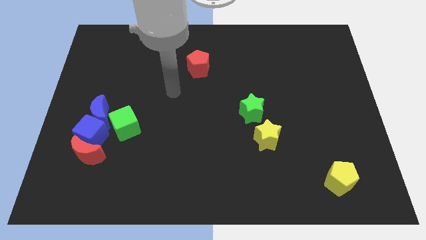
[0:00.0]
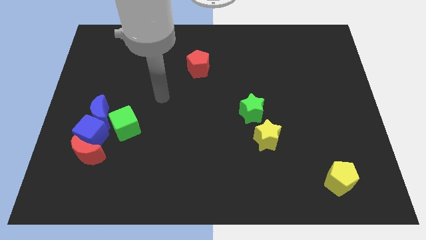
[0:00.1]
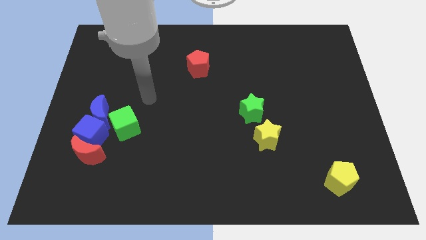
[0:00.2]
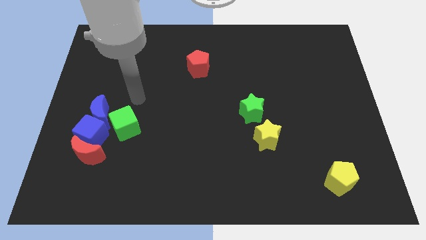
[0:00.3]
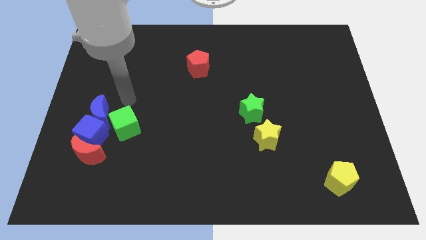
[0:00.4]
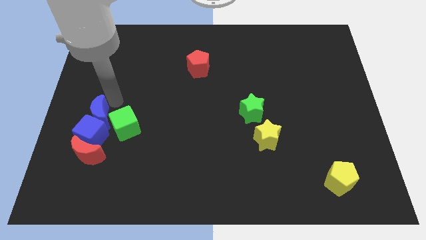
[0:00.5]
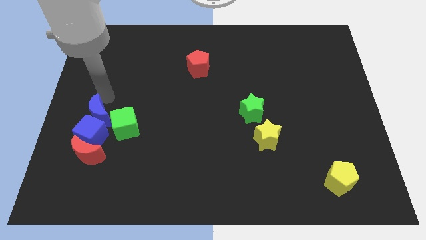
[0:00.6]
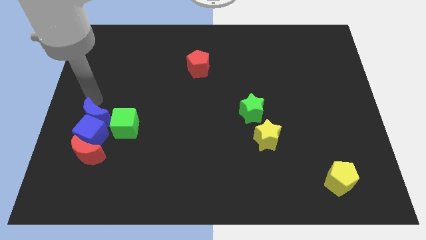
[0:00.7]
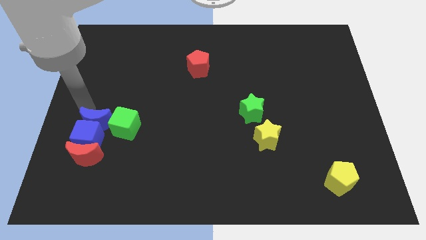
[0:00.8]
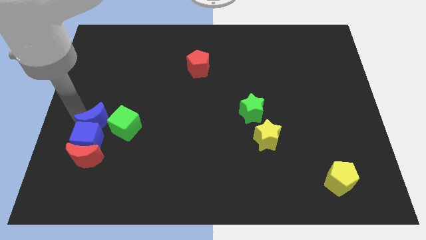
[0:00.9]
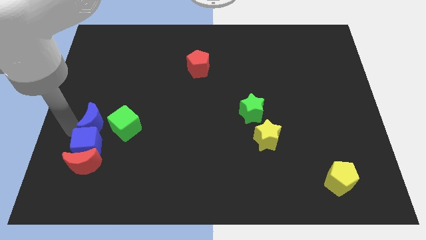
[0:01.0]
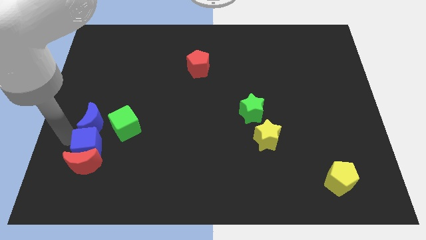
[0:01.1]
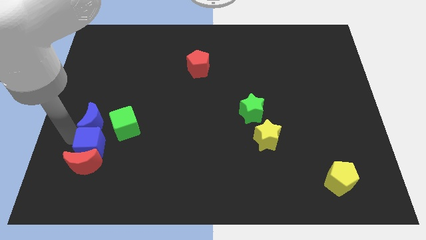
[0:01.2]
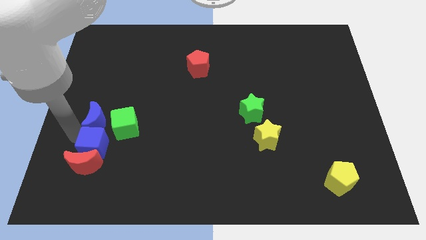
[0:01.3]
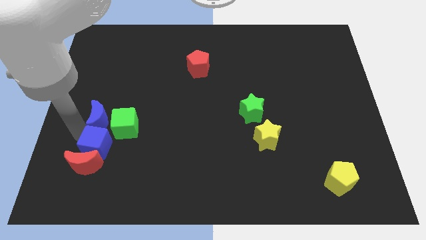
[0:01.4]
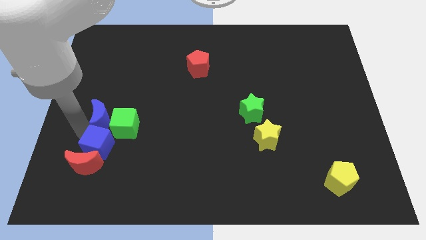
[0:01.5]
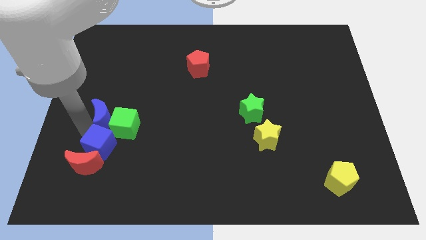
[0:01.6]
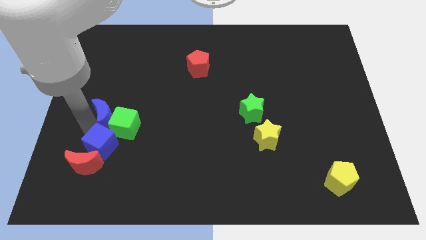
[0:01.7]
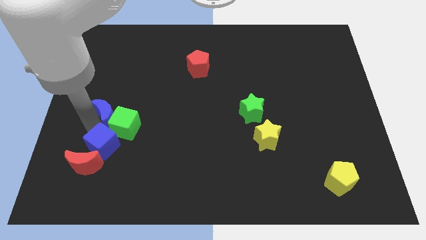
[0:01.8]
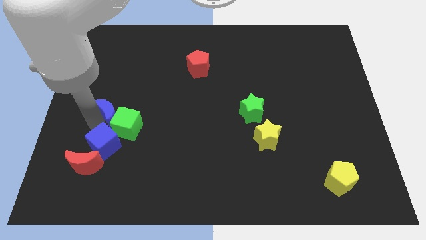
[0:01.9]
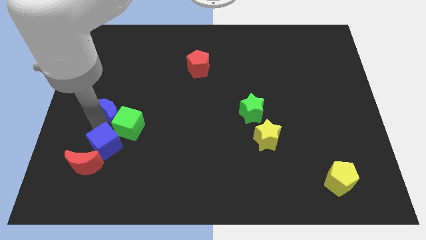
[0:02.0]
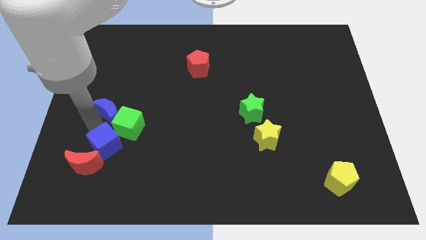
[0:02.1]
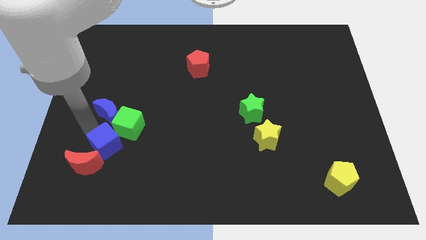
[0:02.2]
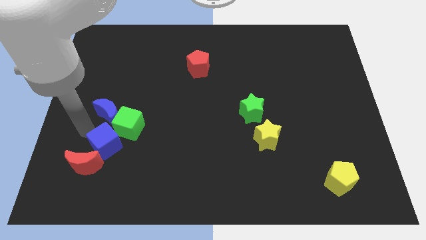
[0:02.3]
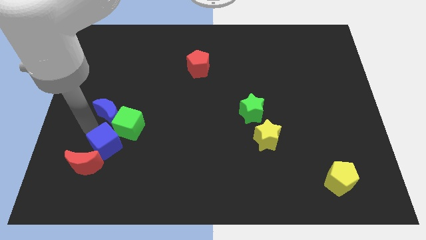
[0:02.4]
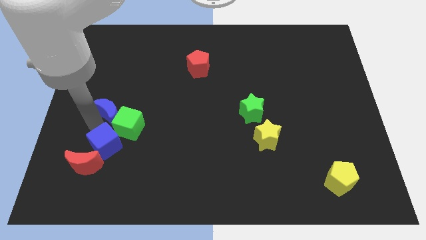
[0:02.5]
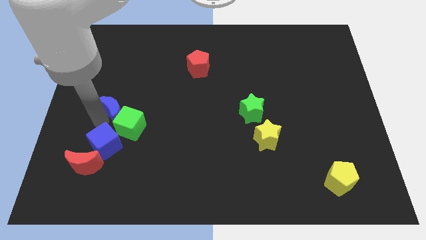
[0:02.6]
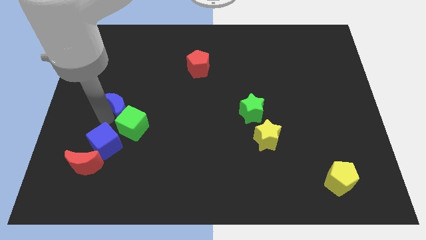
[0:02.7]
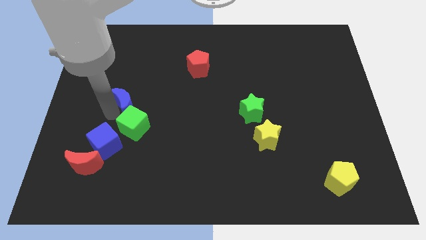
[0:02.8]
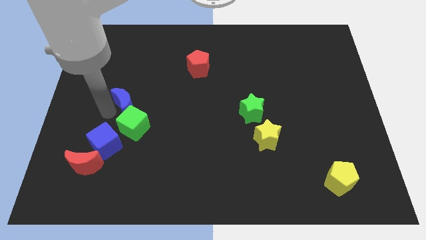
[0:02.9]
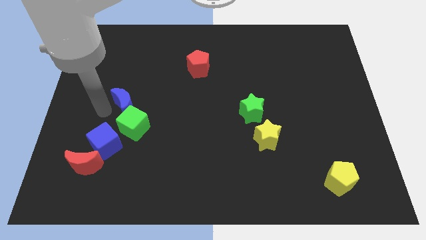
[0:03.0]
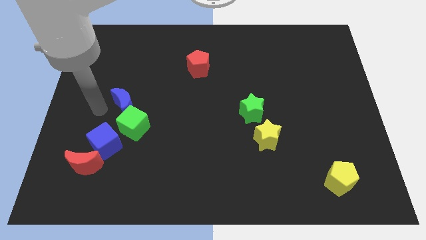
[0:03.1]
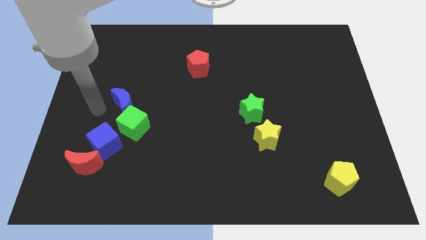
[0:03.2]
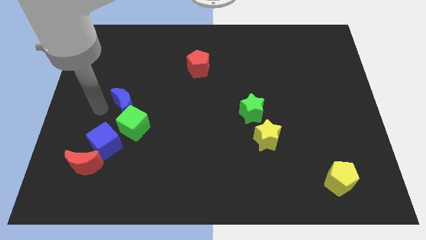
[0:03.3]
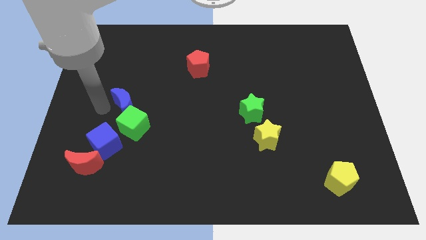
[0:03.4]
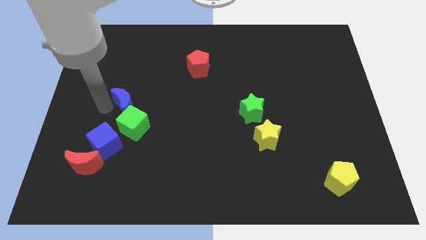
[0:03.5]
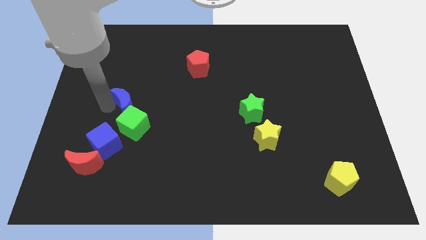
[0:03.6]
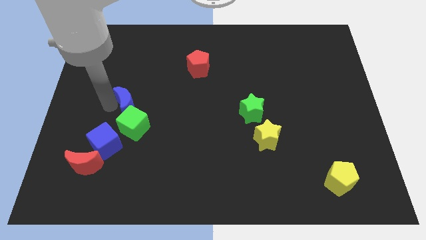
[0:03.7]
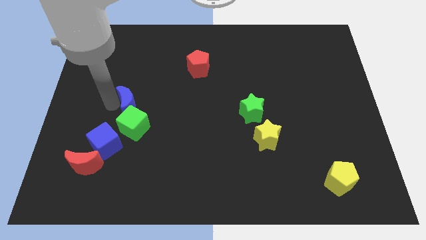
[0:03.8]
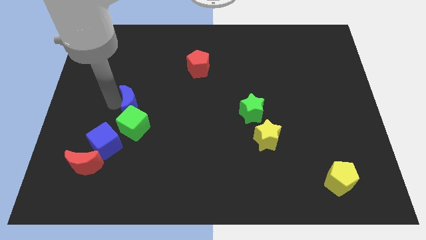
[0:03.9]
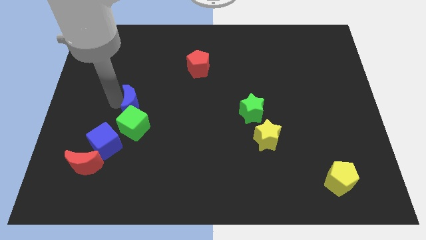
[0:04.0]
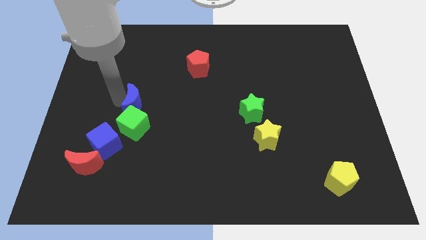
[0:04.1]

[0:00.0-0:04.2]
slightly move the blue moon right

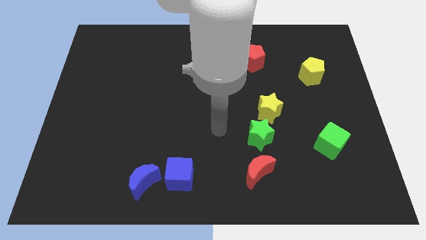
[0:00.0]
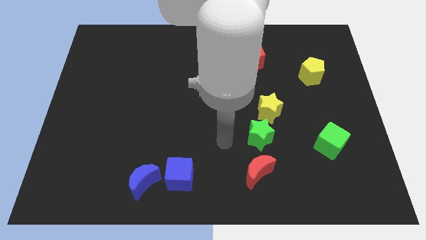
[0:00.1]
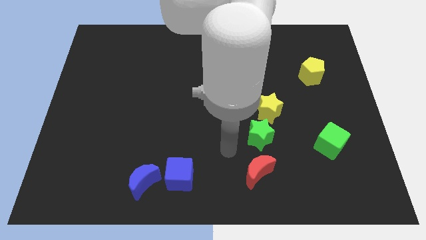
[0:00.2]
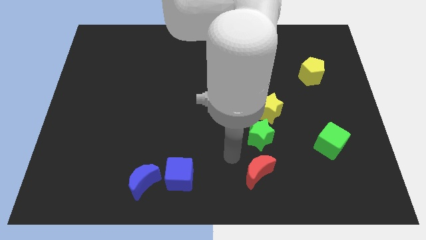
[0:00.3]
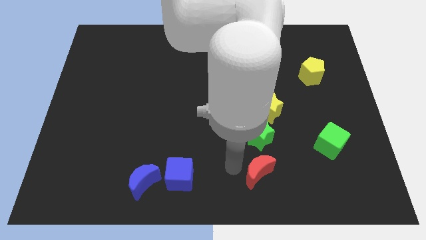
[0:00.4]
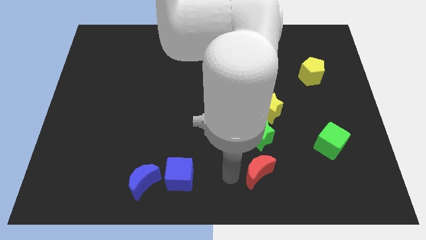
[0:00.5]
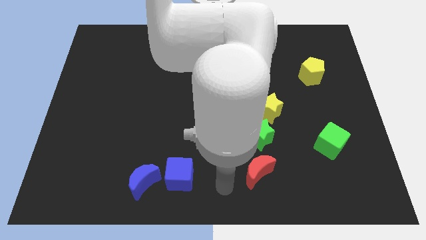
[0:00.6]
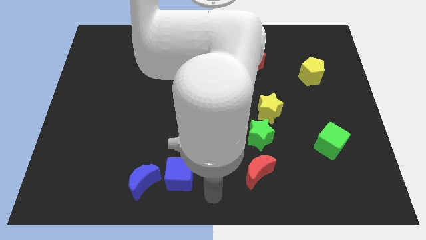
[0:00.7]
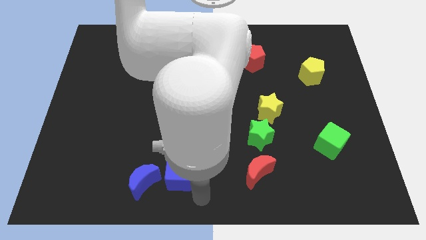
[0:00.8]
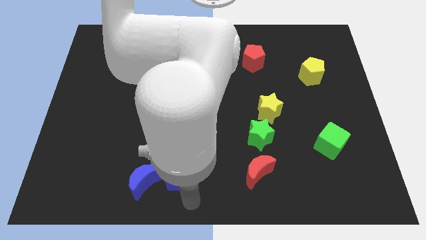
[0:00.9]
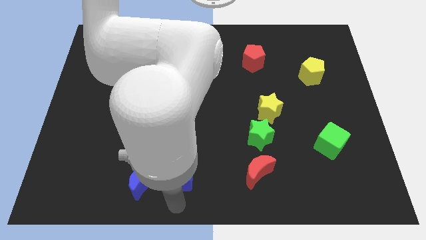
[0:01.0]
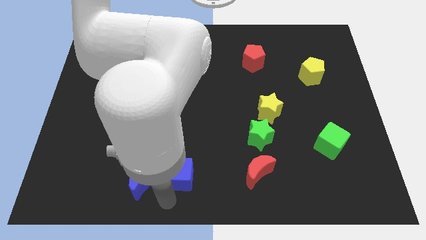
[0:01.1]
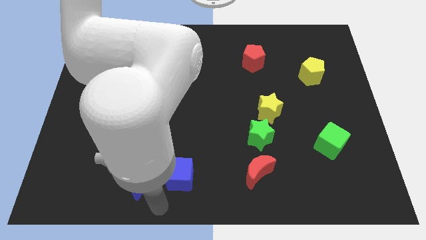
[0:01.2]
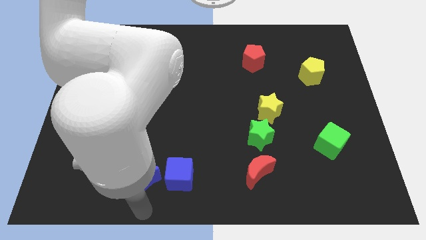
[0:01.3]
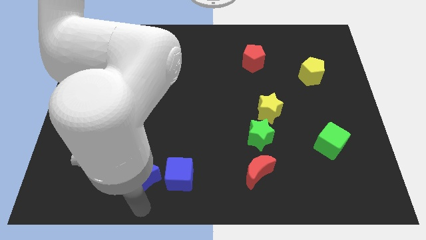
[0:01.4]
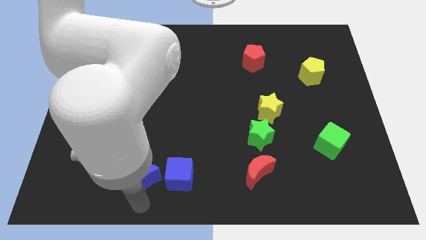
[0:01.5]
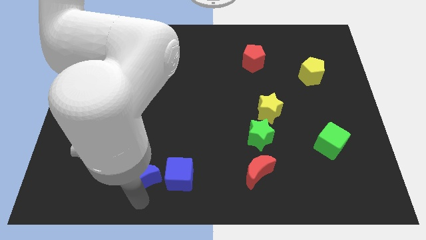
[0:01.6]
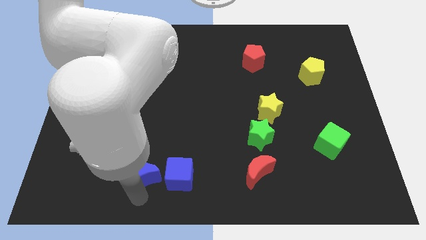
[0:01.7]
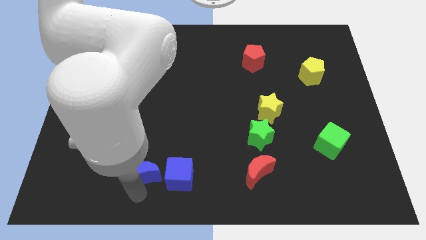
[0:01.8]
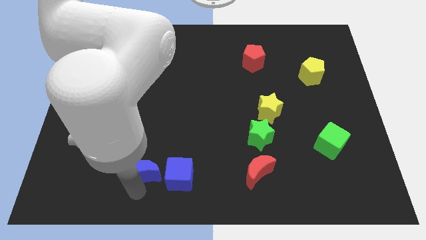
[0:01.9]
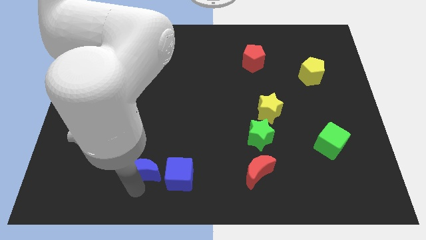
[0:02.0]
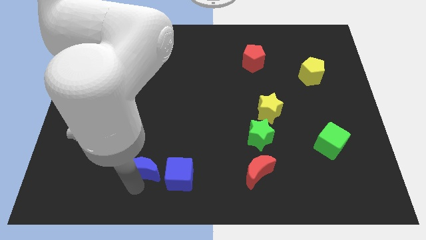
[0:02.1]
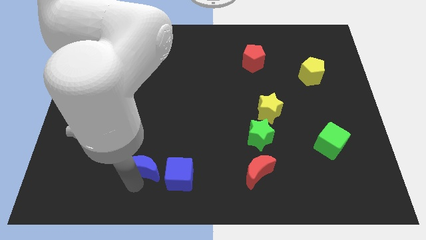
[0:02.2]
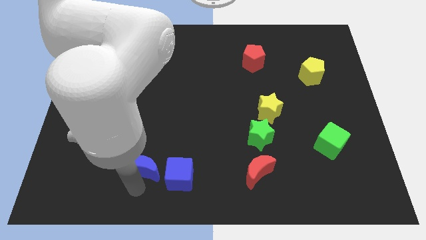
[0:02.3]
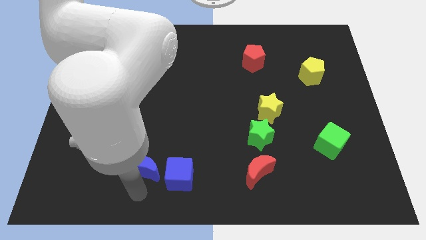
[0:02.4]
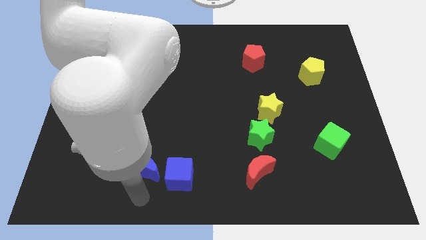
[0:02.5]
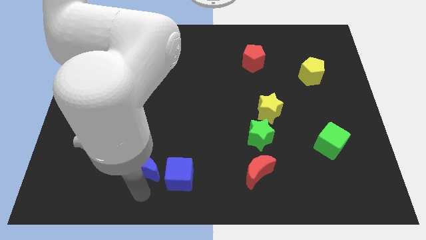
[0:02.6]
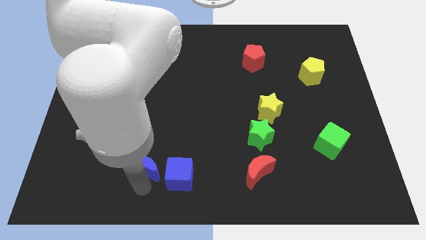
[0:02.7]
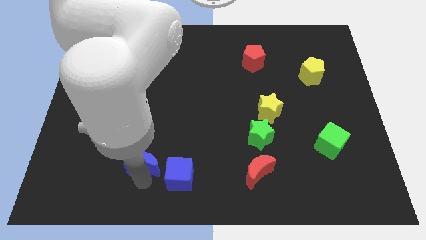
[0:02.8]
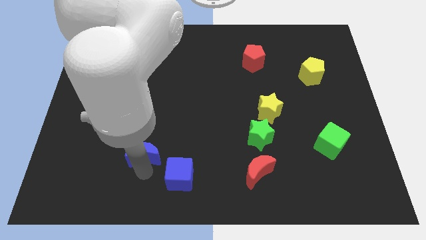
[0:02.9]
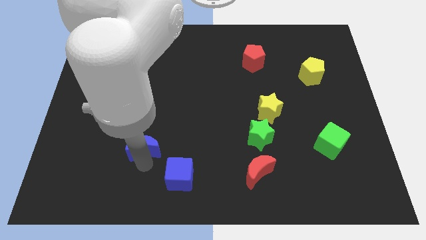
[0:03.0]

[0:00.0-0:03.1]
slide the blue moon a little up

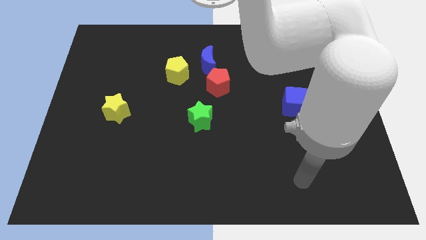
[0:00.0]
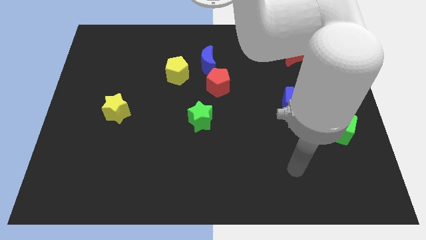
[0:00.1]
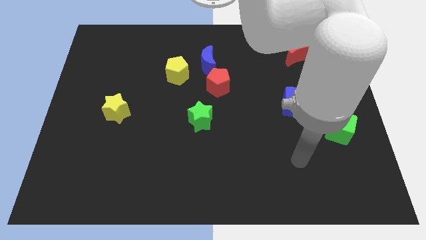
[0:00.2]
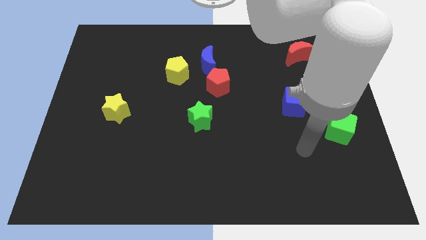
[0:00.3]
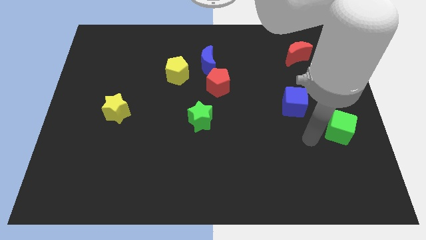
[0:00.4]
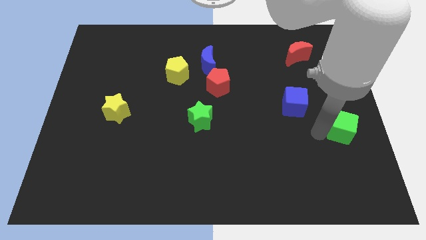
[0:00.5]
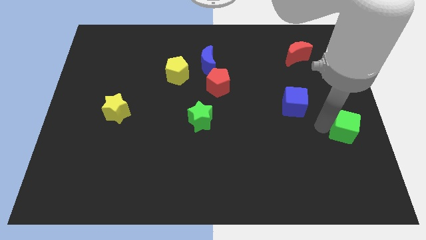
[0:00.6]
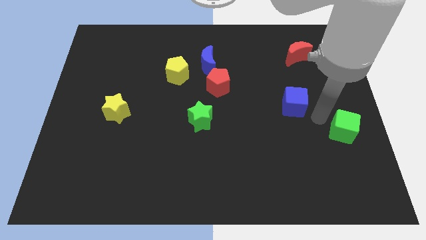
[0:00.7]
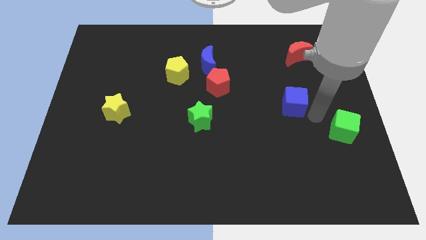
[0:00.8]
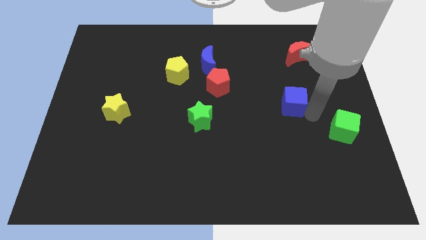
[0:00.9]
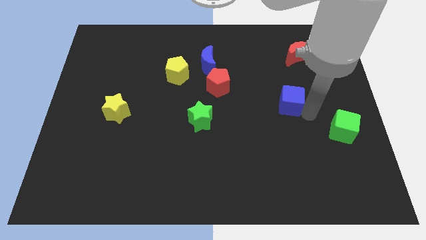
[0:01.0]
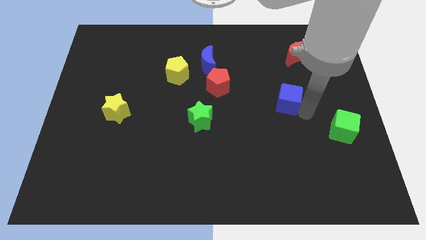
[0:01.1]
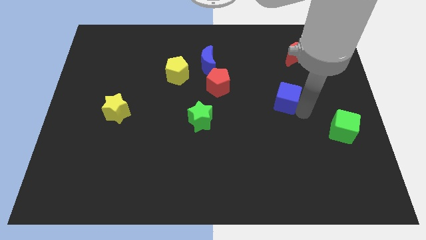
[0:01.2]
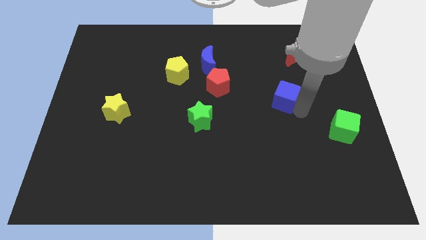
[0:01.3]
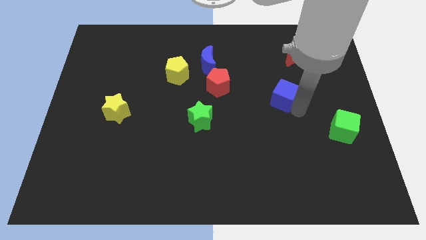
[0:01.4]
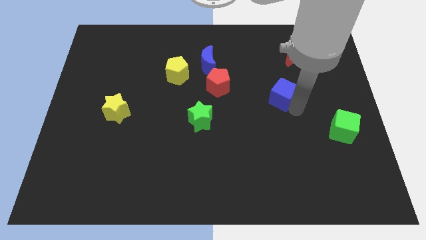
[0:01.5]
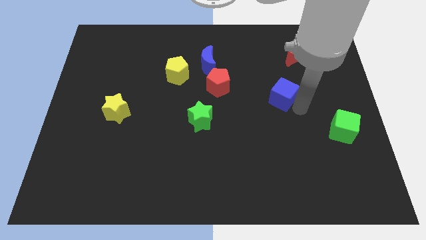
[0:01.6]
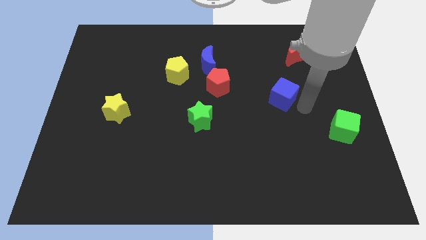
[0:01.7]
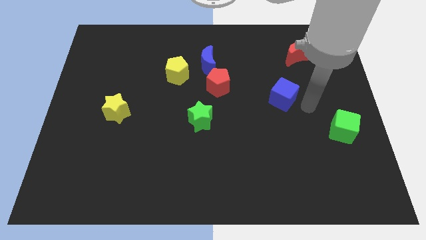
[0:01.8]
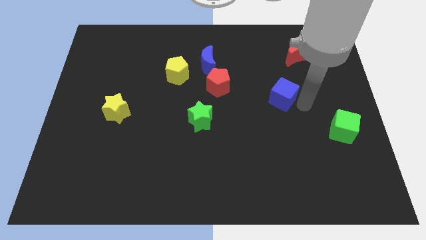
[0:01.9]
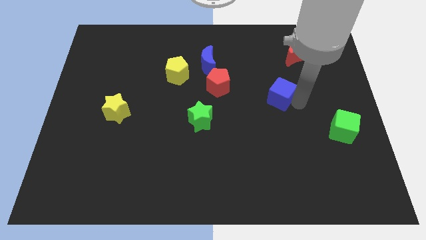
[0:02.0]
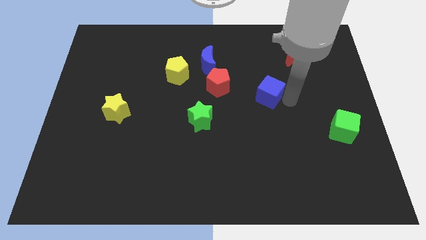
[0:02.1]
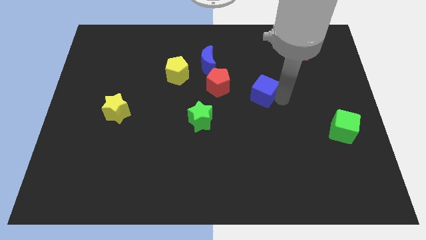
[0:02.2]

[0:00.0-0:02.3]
move the blue cube a bit diagonally up and left
